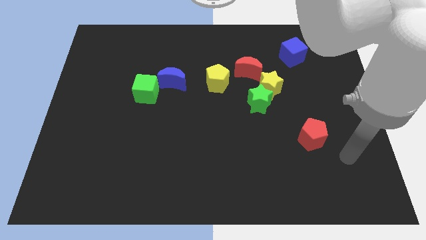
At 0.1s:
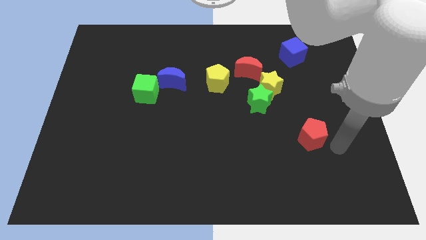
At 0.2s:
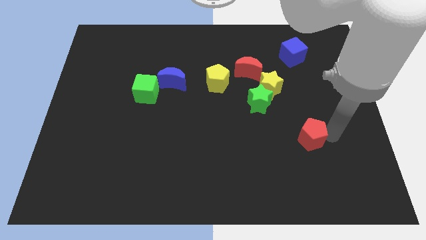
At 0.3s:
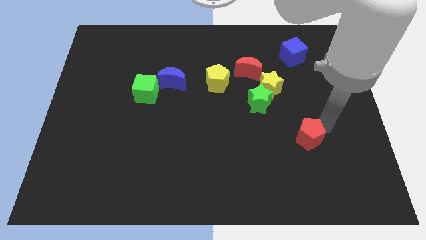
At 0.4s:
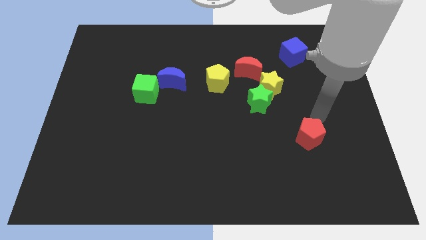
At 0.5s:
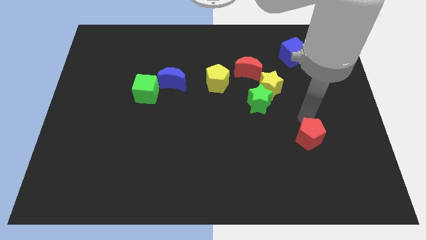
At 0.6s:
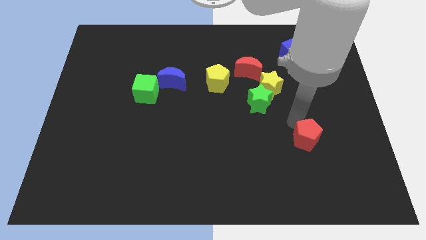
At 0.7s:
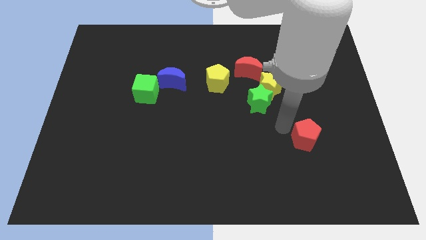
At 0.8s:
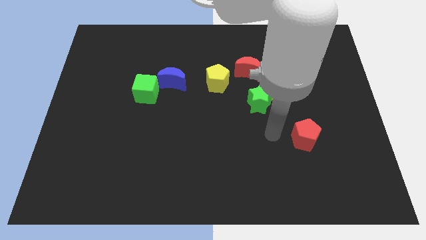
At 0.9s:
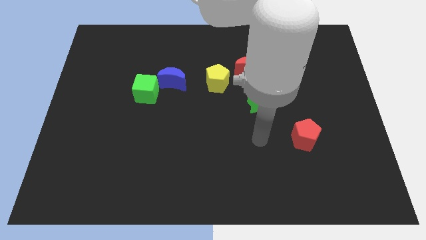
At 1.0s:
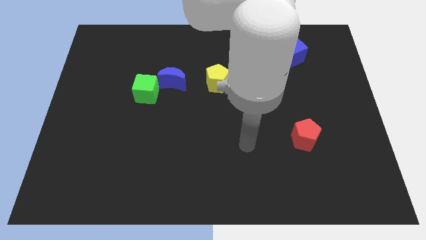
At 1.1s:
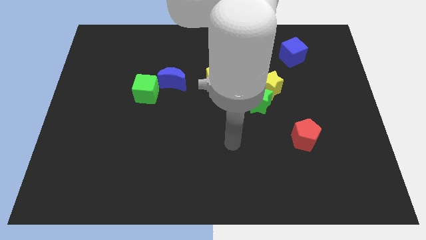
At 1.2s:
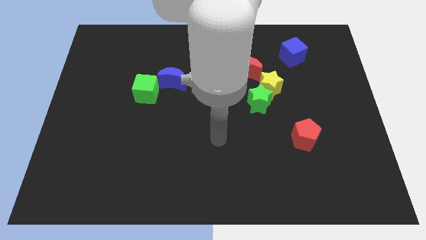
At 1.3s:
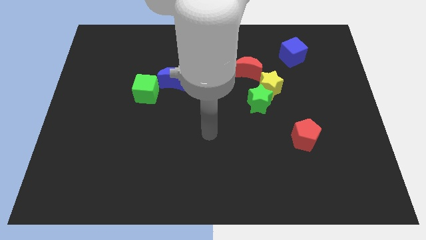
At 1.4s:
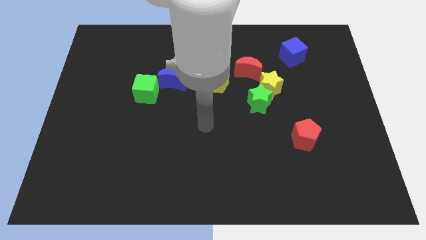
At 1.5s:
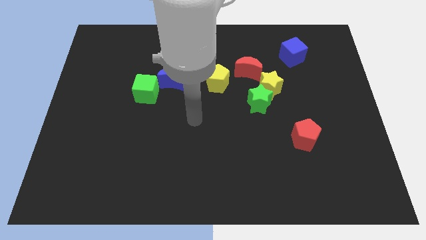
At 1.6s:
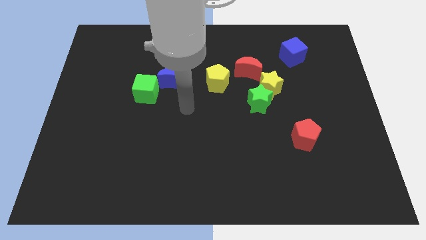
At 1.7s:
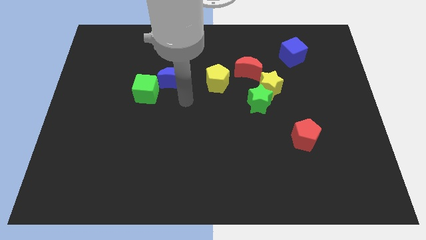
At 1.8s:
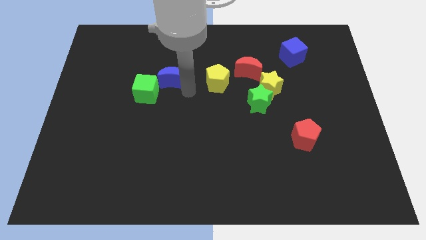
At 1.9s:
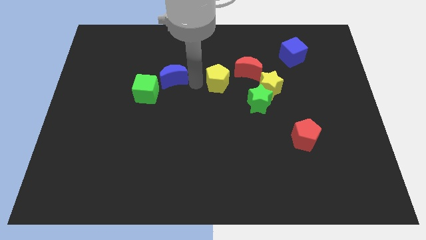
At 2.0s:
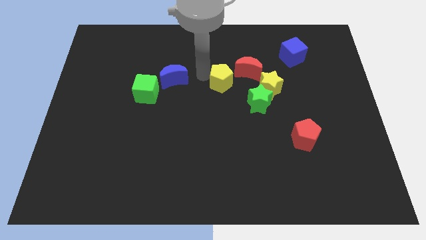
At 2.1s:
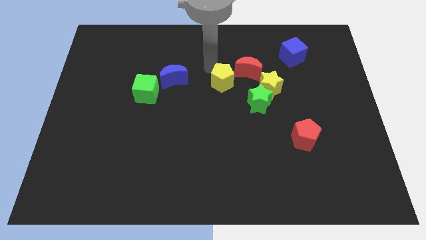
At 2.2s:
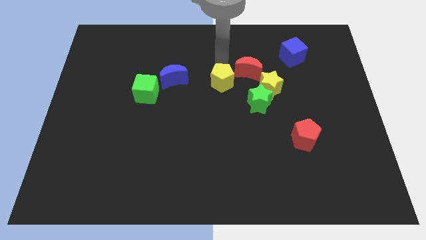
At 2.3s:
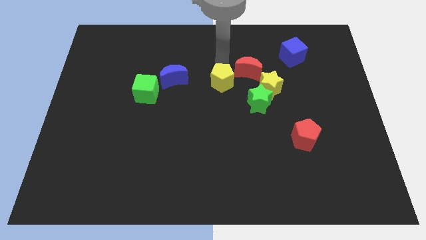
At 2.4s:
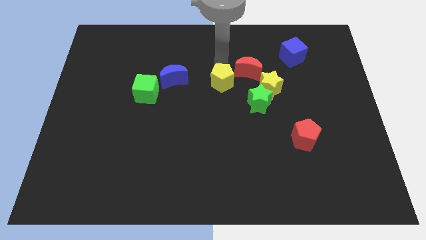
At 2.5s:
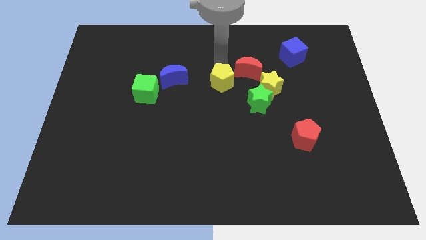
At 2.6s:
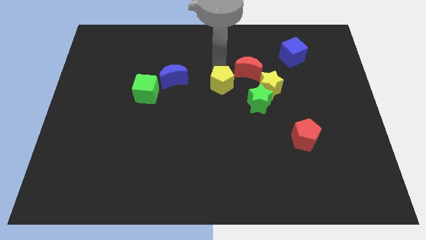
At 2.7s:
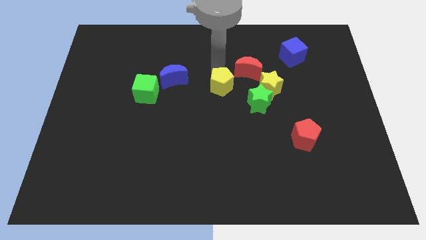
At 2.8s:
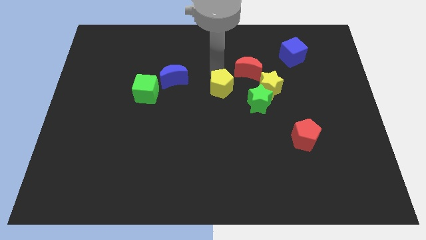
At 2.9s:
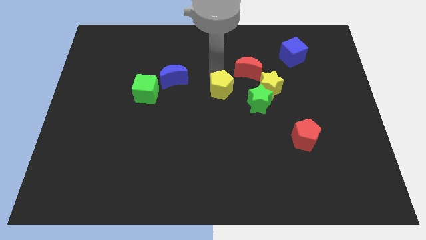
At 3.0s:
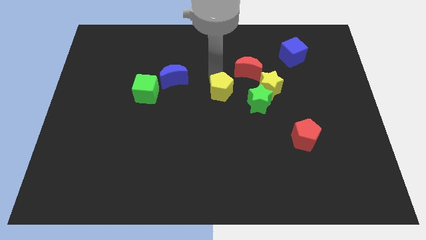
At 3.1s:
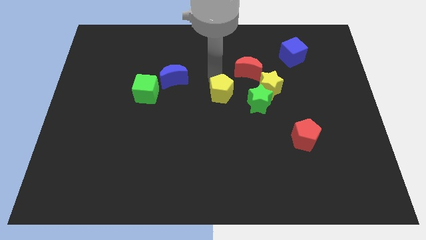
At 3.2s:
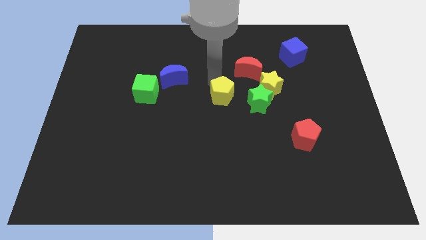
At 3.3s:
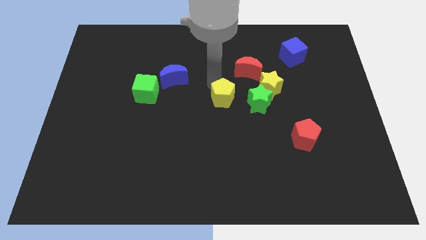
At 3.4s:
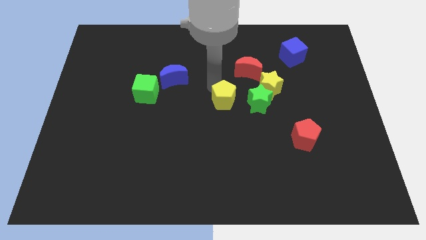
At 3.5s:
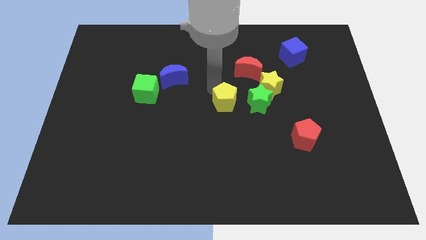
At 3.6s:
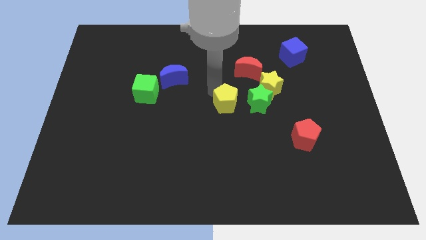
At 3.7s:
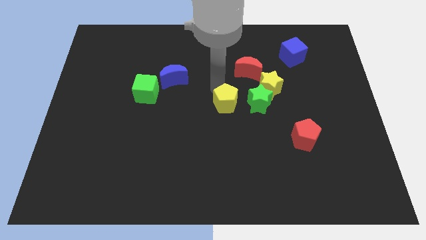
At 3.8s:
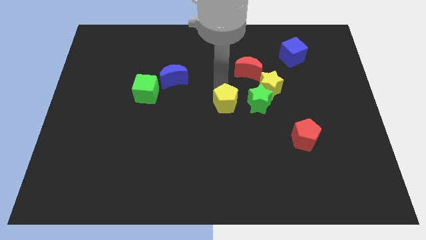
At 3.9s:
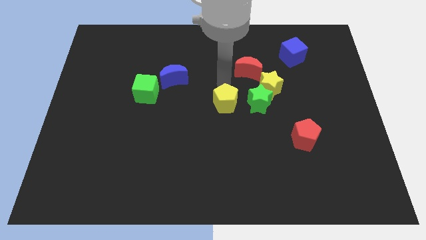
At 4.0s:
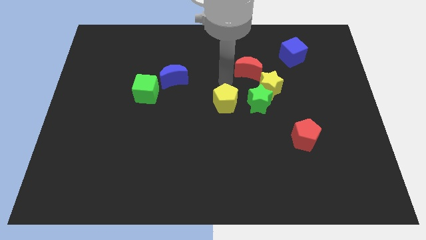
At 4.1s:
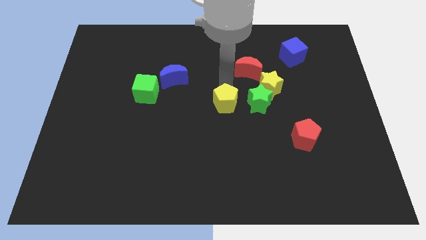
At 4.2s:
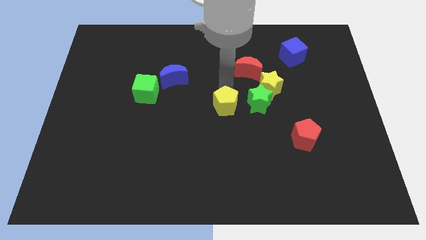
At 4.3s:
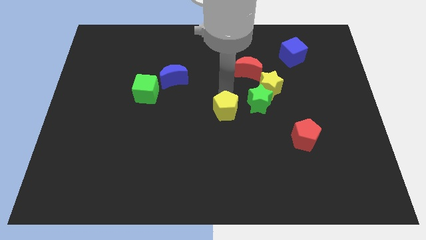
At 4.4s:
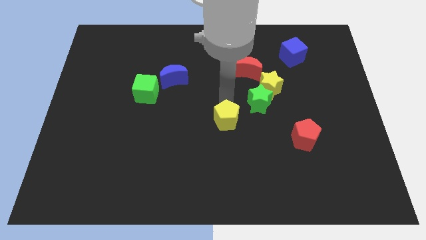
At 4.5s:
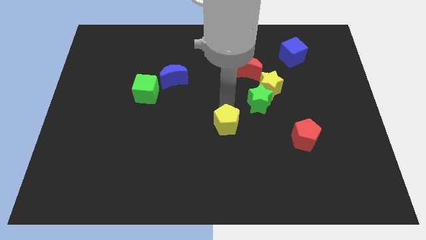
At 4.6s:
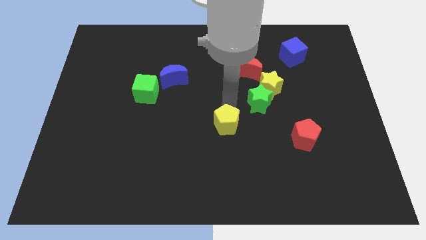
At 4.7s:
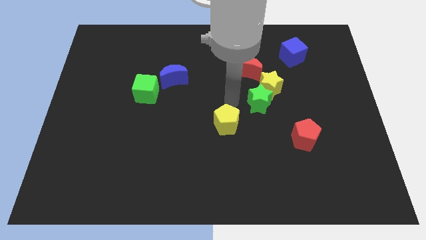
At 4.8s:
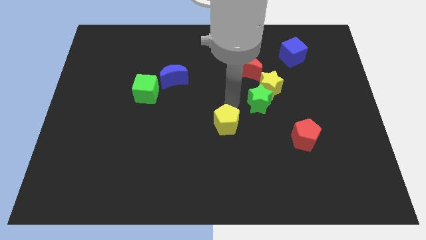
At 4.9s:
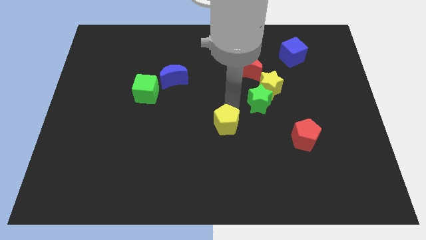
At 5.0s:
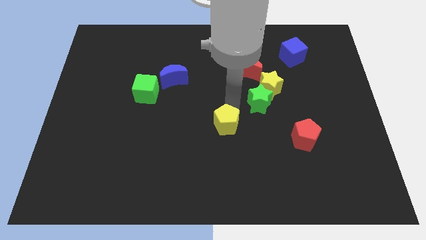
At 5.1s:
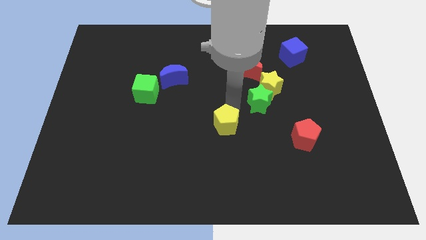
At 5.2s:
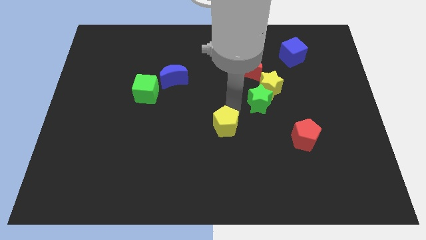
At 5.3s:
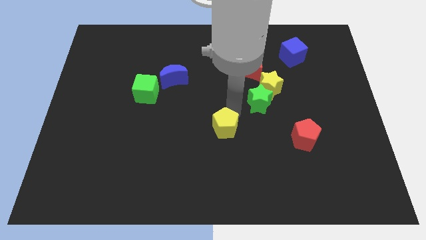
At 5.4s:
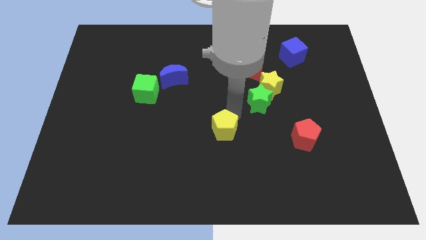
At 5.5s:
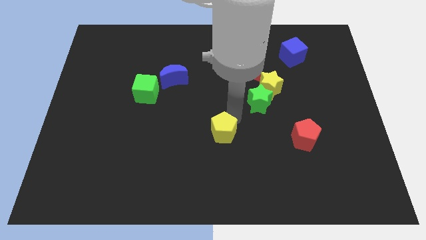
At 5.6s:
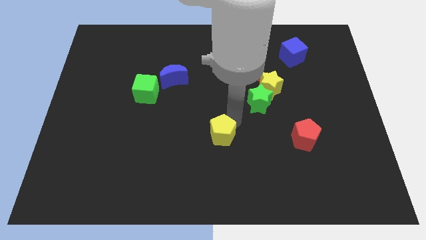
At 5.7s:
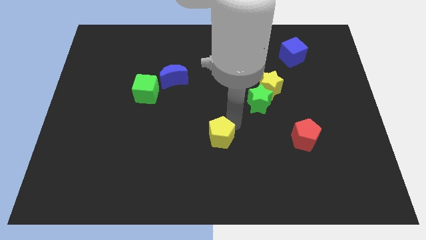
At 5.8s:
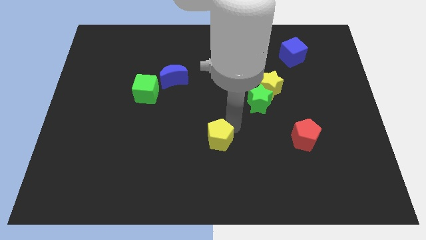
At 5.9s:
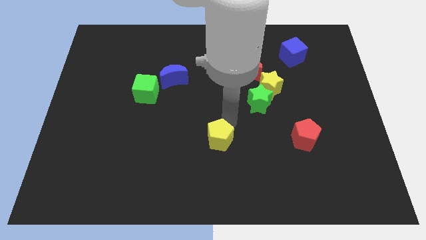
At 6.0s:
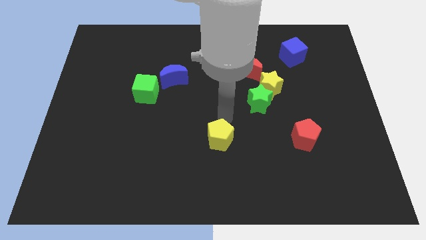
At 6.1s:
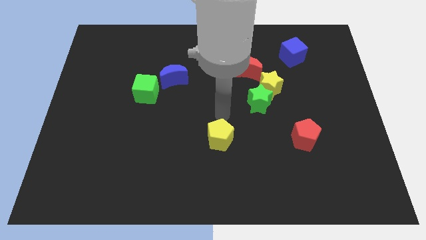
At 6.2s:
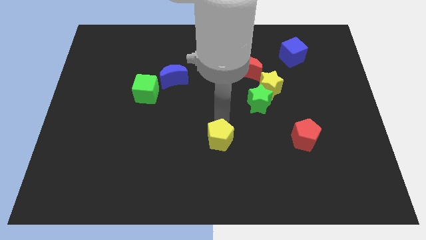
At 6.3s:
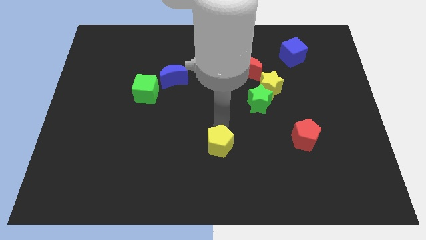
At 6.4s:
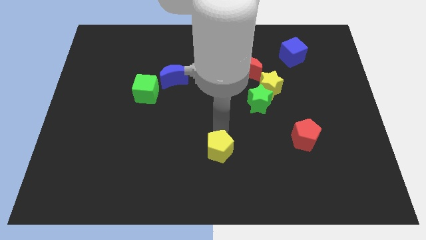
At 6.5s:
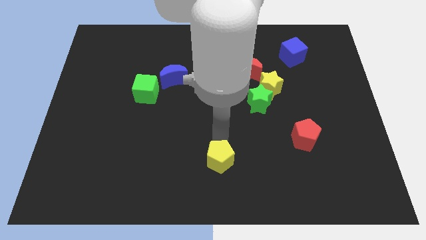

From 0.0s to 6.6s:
push the yellow pentagon to the bottom

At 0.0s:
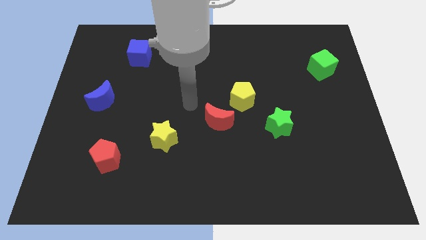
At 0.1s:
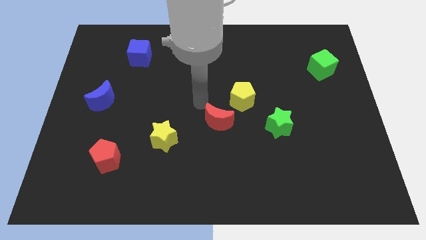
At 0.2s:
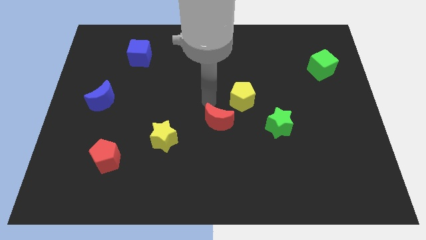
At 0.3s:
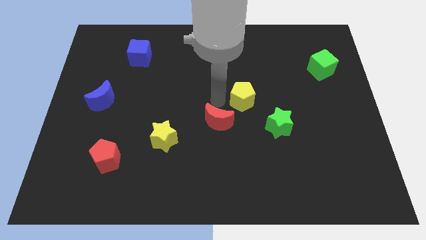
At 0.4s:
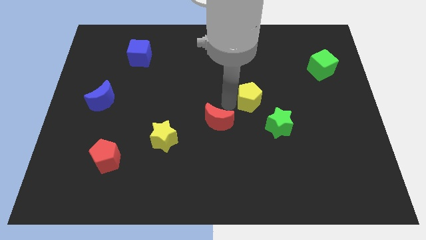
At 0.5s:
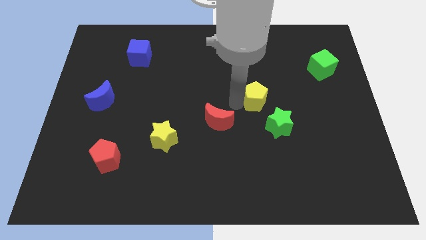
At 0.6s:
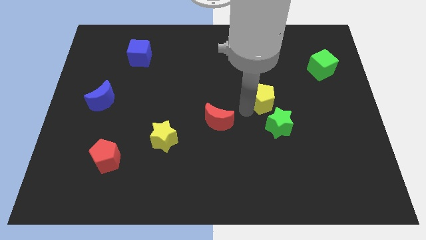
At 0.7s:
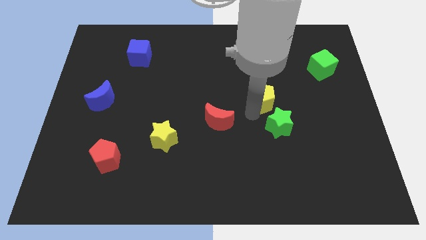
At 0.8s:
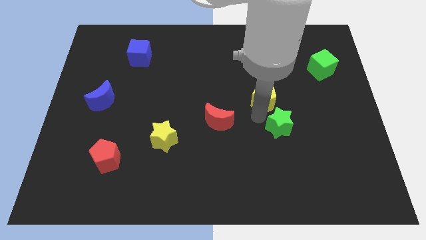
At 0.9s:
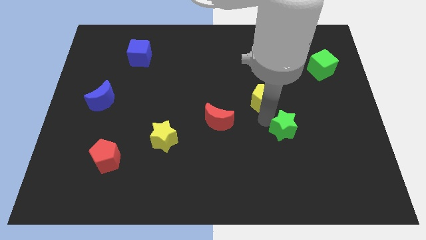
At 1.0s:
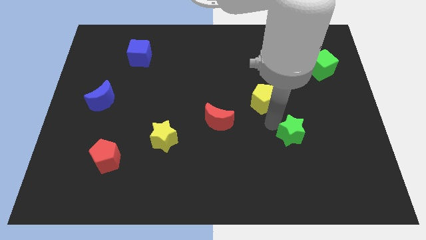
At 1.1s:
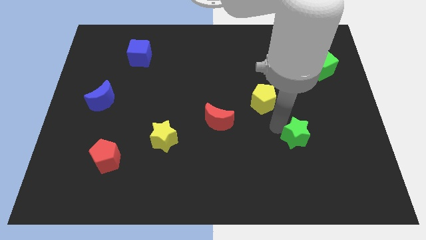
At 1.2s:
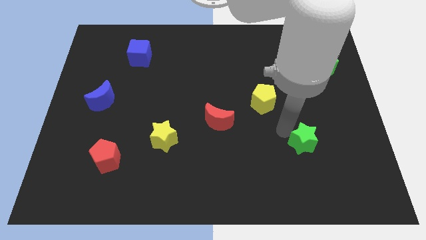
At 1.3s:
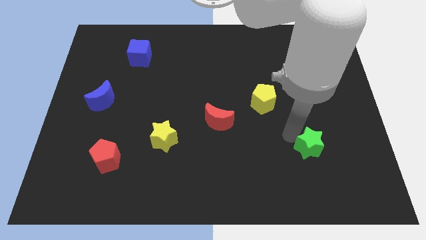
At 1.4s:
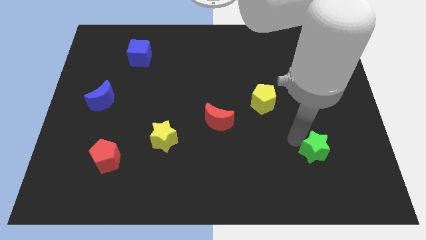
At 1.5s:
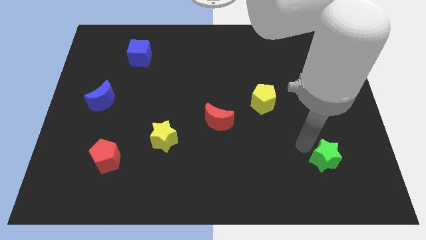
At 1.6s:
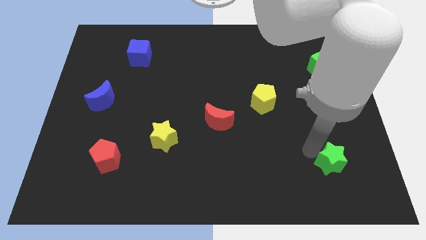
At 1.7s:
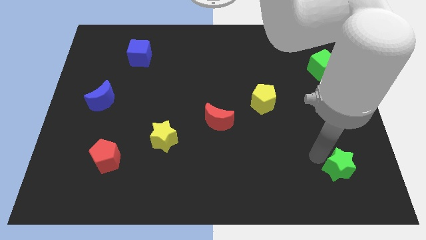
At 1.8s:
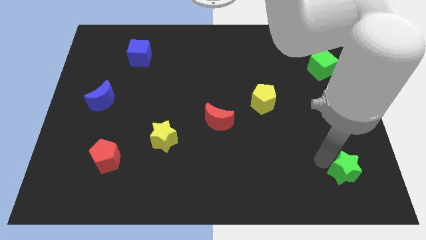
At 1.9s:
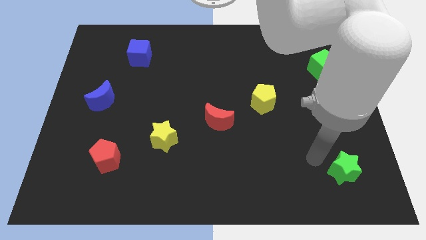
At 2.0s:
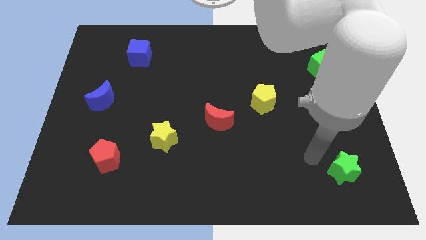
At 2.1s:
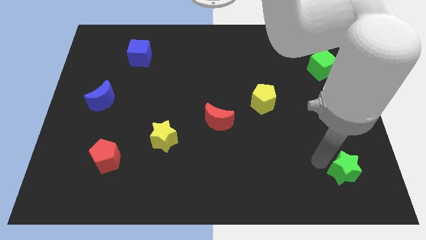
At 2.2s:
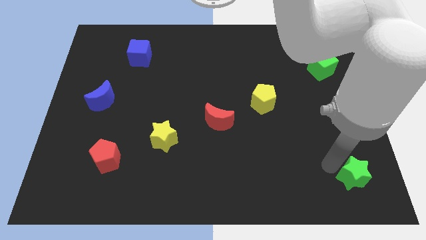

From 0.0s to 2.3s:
put the green star to the lower right corner
